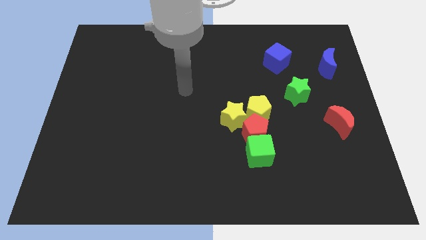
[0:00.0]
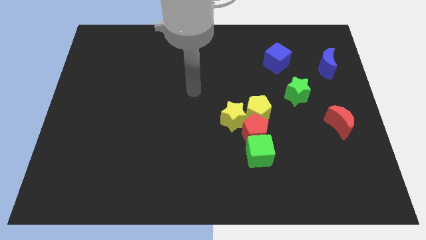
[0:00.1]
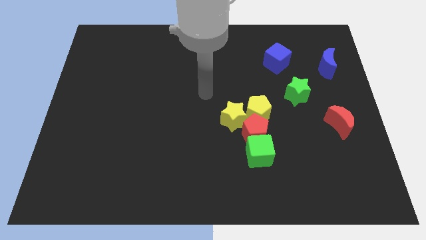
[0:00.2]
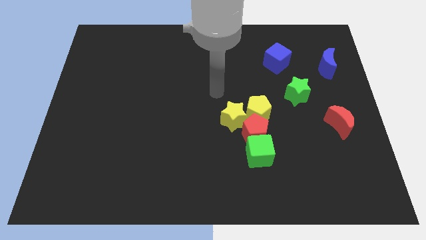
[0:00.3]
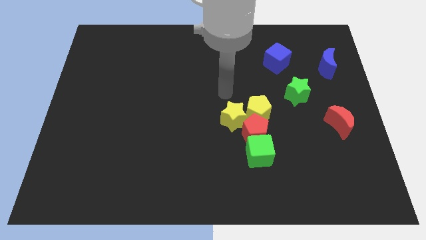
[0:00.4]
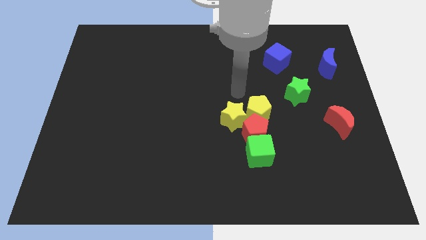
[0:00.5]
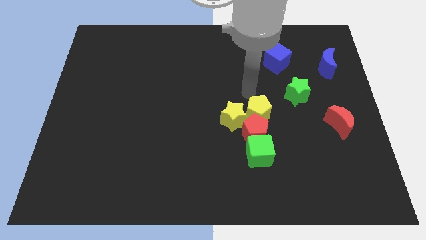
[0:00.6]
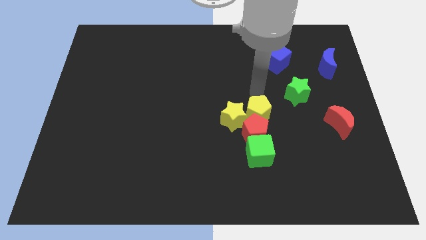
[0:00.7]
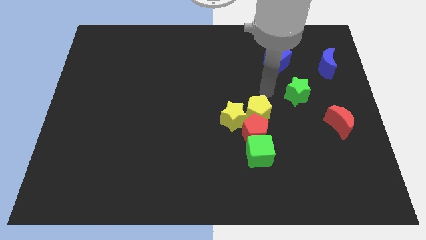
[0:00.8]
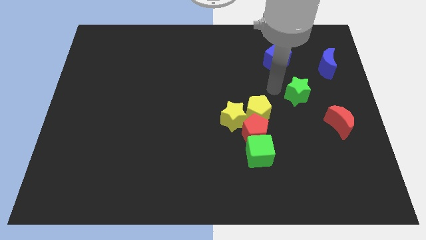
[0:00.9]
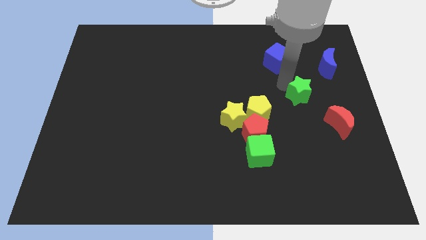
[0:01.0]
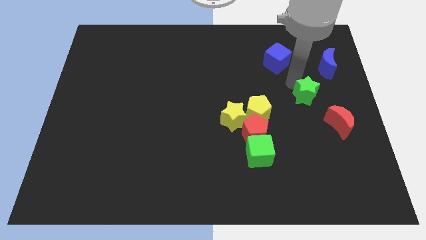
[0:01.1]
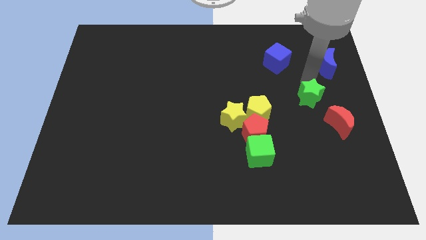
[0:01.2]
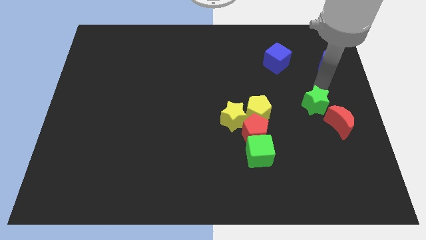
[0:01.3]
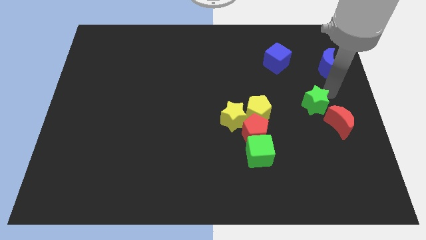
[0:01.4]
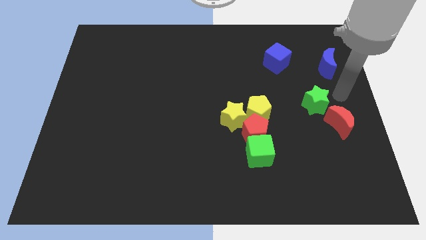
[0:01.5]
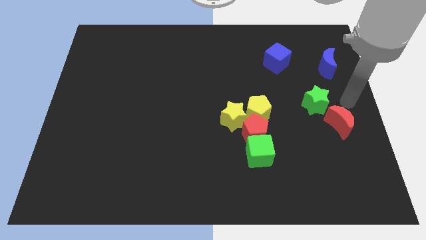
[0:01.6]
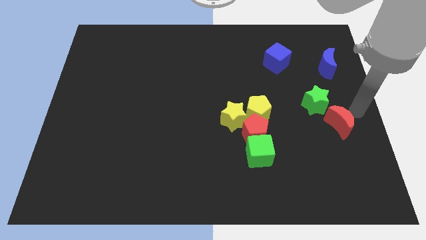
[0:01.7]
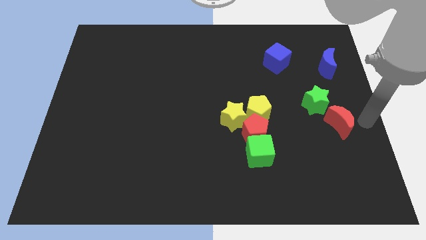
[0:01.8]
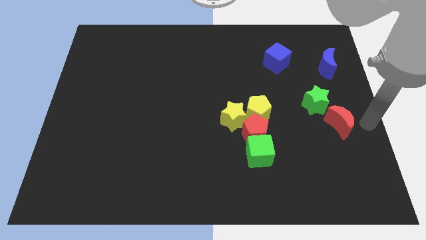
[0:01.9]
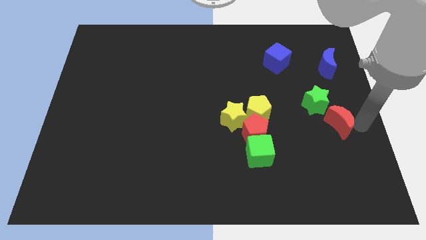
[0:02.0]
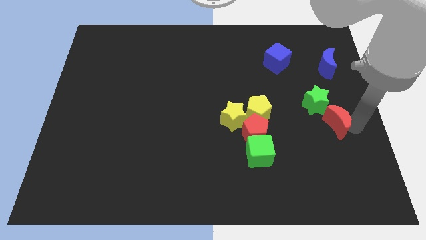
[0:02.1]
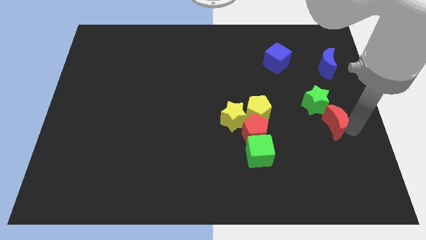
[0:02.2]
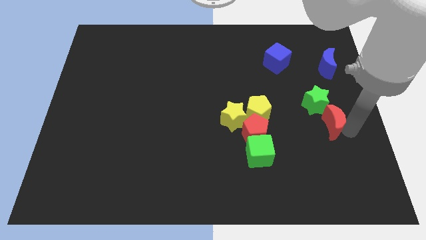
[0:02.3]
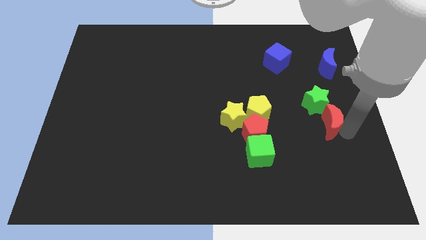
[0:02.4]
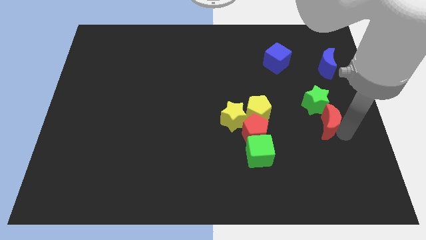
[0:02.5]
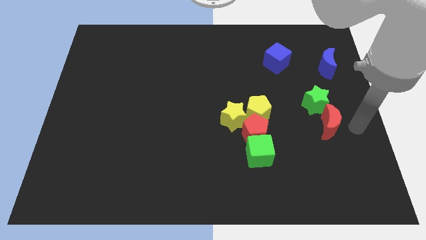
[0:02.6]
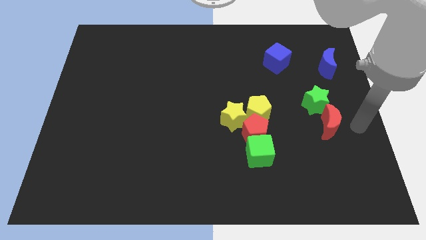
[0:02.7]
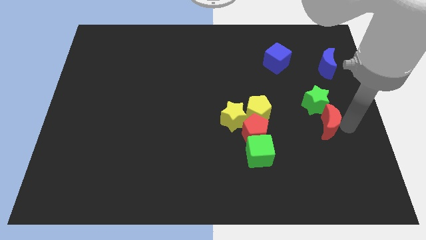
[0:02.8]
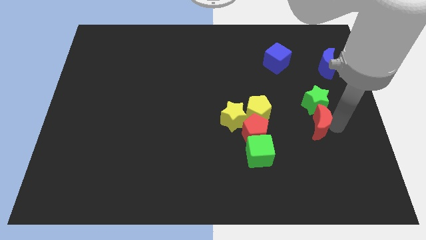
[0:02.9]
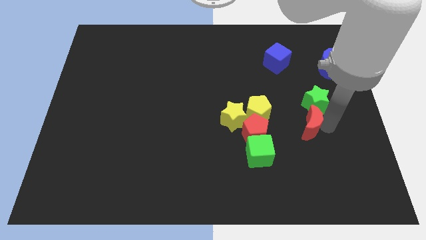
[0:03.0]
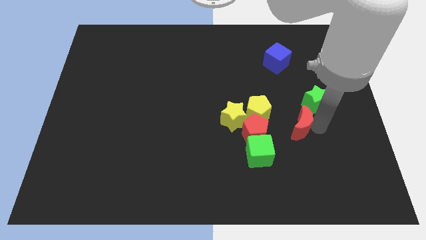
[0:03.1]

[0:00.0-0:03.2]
slide the red moon a little to the left

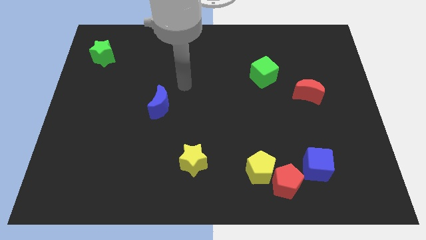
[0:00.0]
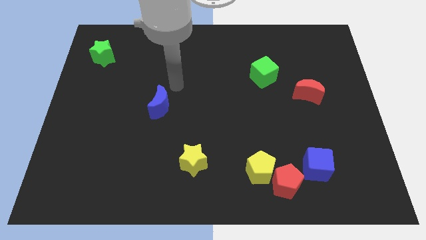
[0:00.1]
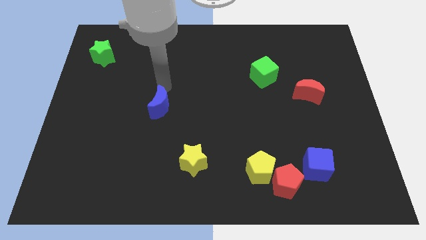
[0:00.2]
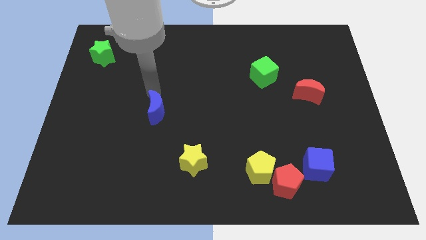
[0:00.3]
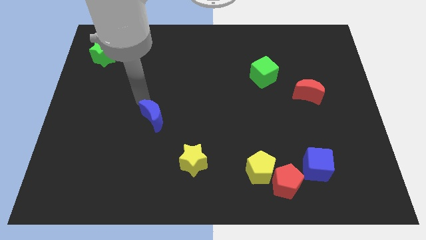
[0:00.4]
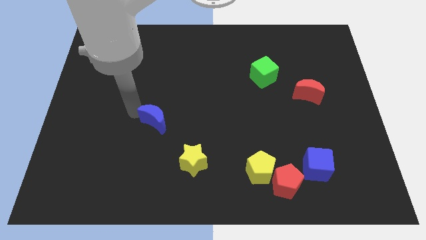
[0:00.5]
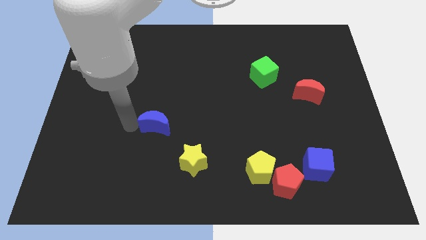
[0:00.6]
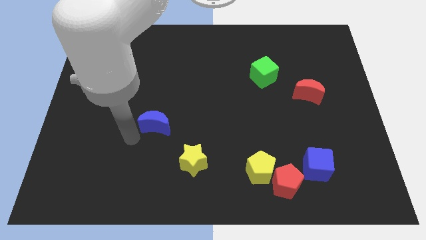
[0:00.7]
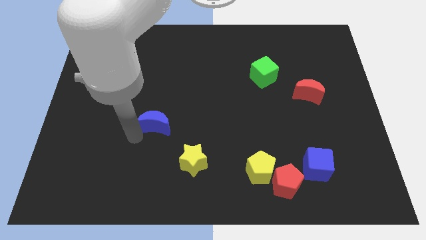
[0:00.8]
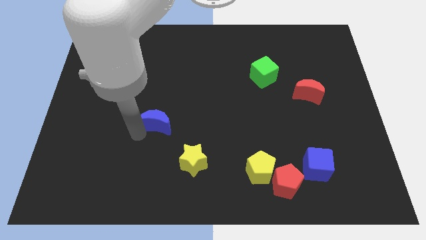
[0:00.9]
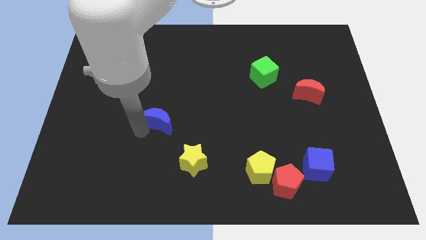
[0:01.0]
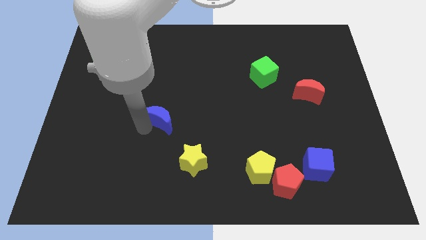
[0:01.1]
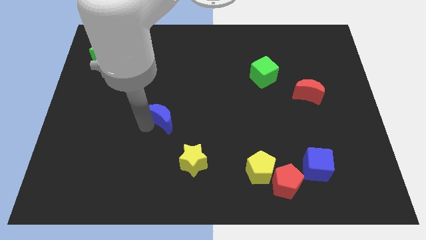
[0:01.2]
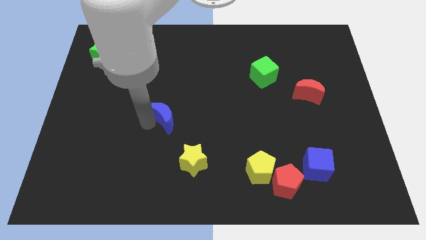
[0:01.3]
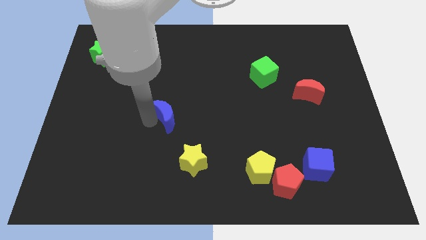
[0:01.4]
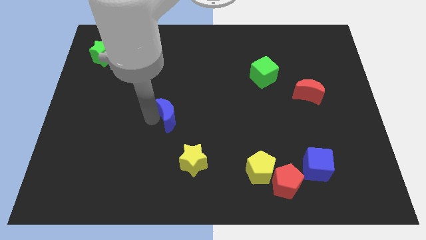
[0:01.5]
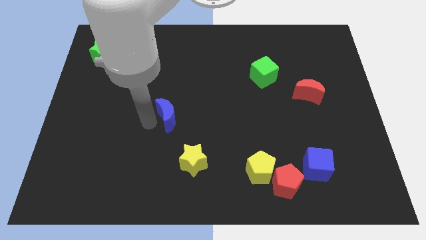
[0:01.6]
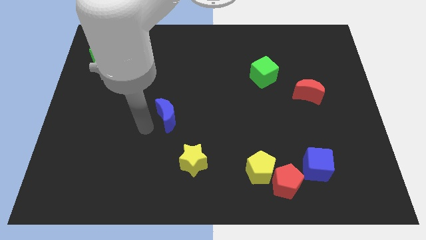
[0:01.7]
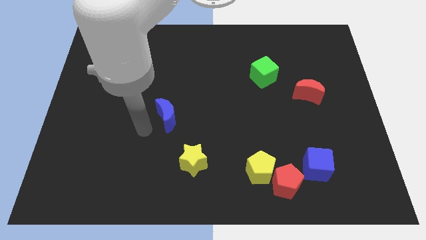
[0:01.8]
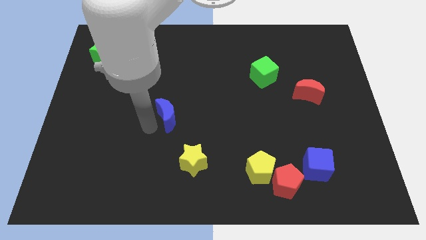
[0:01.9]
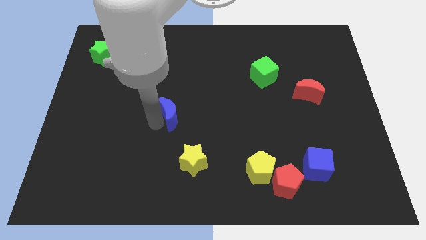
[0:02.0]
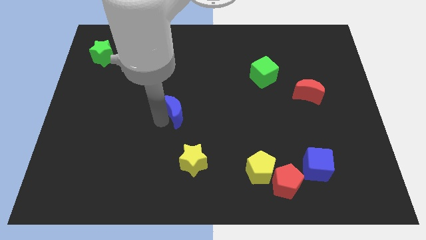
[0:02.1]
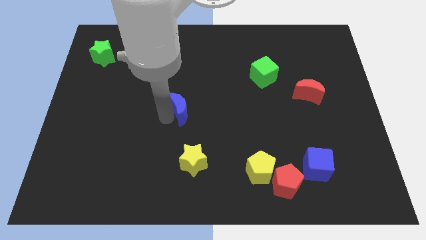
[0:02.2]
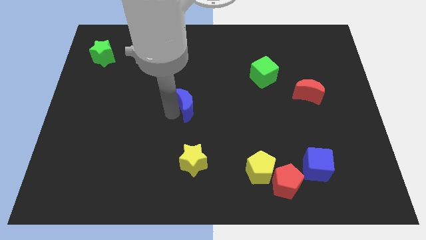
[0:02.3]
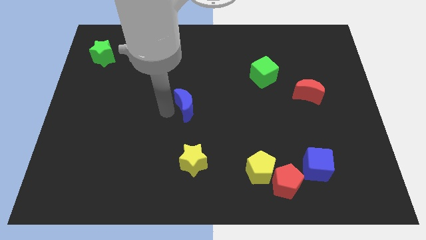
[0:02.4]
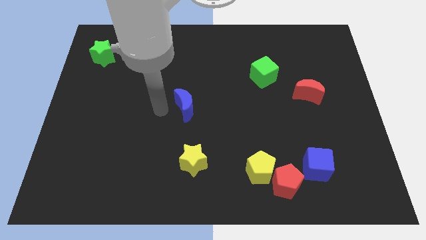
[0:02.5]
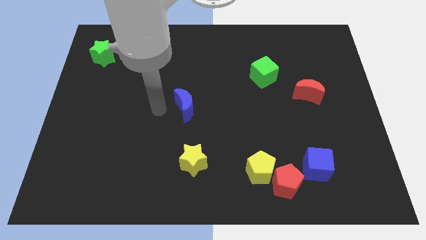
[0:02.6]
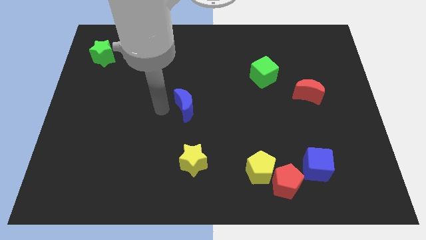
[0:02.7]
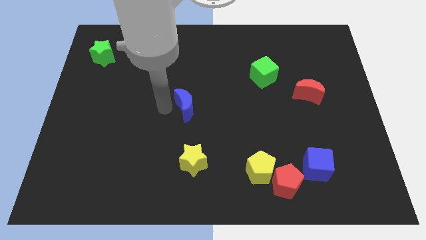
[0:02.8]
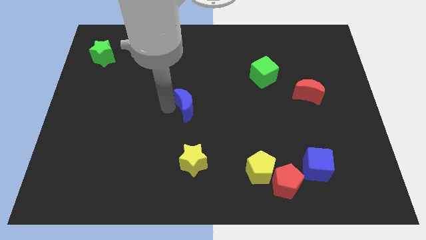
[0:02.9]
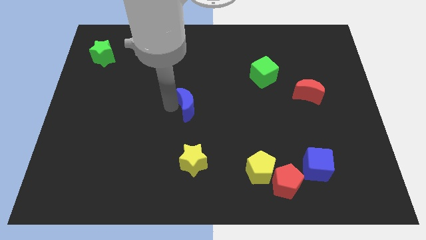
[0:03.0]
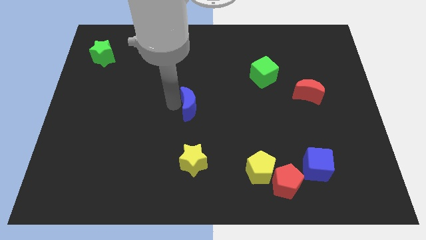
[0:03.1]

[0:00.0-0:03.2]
slightly push the blue moon right

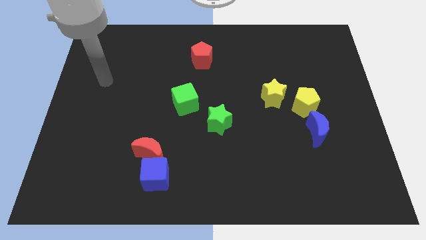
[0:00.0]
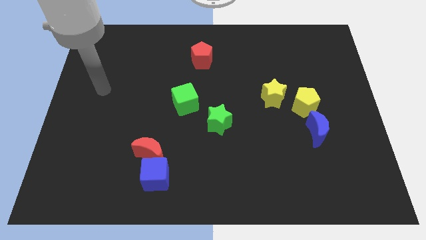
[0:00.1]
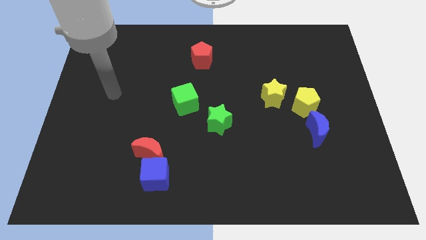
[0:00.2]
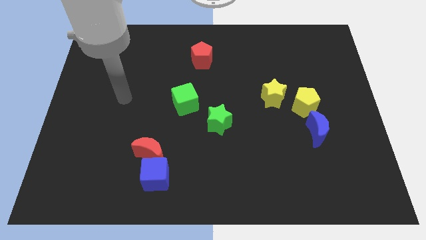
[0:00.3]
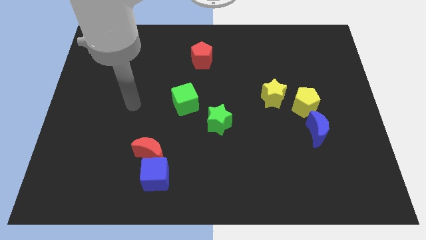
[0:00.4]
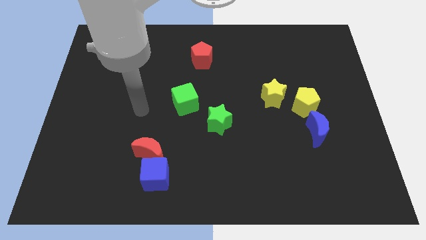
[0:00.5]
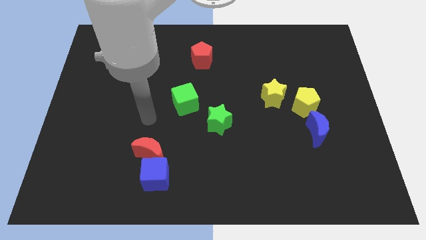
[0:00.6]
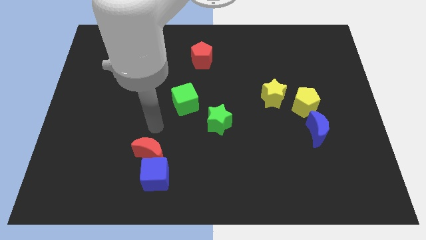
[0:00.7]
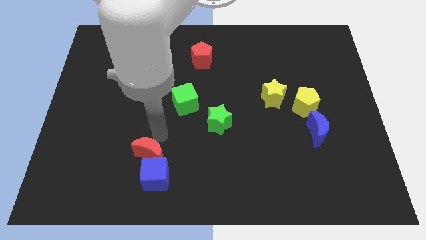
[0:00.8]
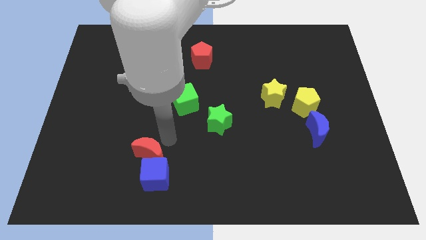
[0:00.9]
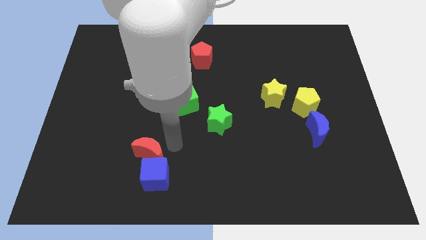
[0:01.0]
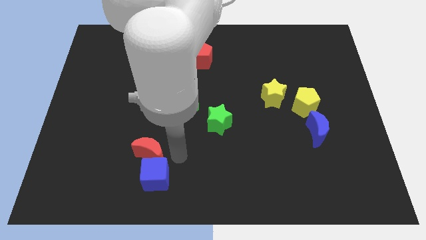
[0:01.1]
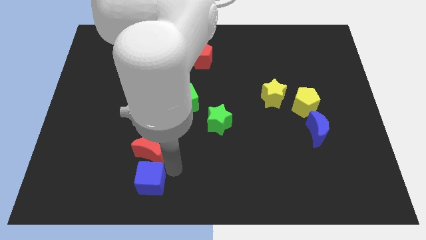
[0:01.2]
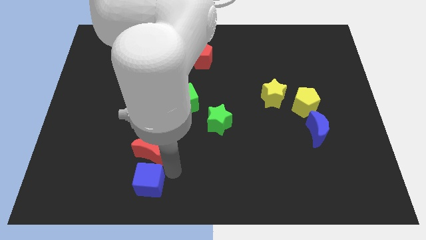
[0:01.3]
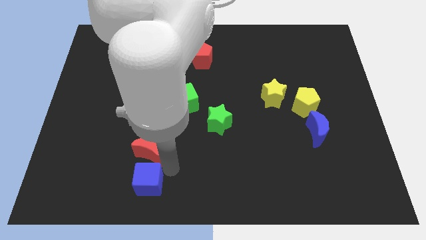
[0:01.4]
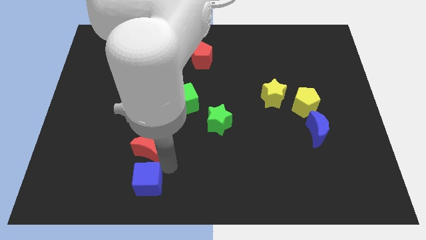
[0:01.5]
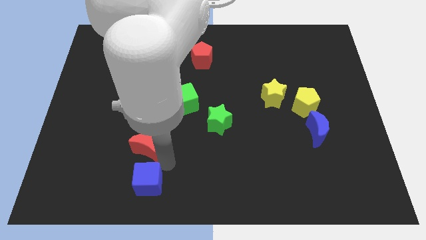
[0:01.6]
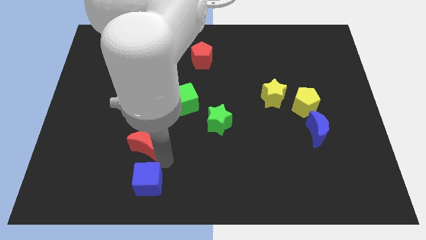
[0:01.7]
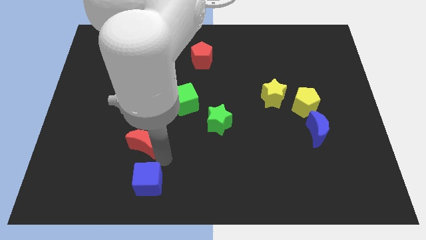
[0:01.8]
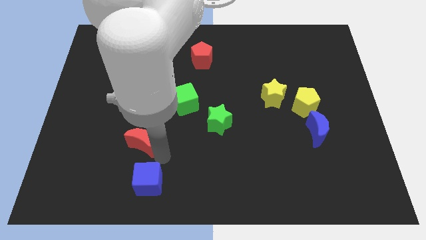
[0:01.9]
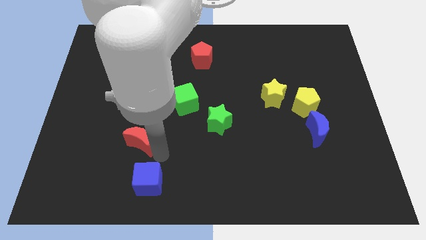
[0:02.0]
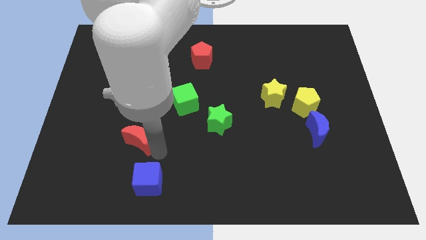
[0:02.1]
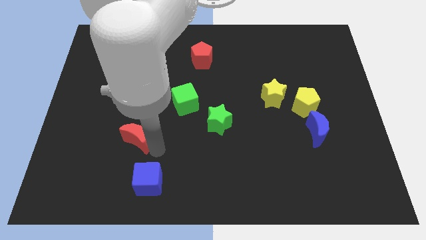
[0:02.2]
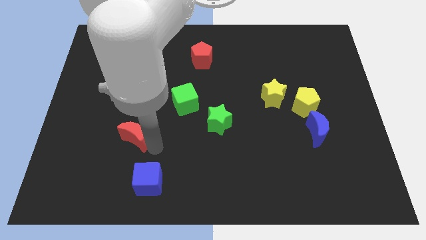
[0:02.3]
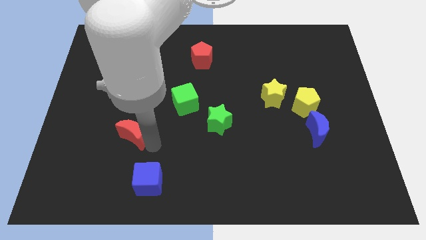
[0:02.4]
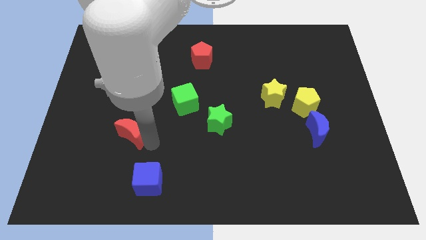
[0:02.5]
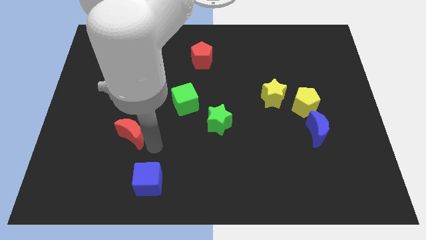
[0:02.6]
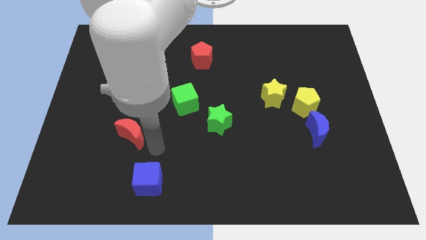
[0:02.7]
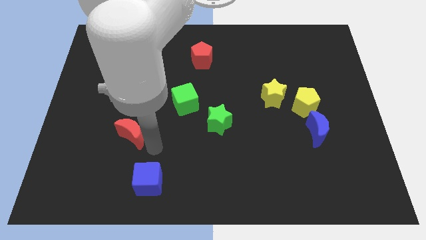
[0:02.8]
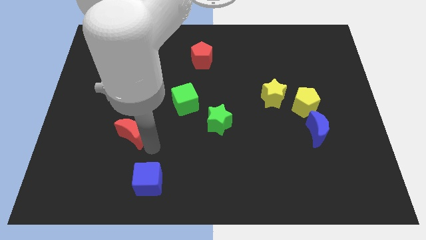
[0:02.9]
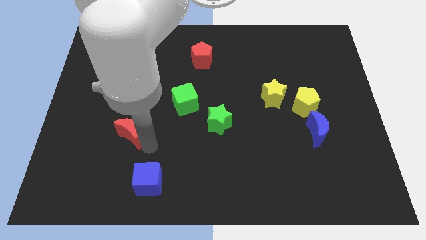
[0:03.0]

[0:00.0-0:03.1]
slightly slide the red moon up and left diagonally
